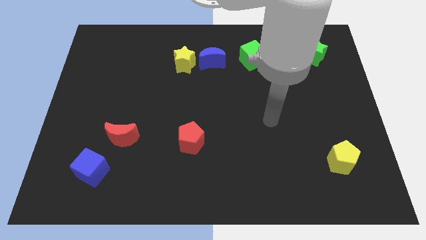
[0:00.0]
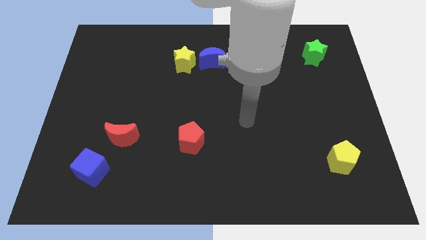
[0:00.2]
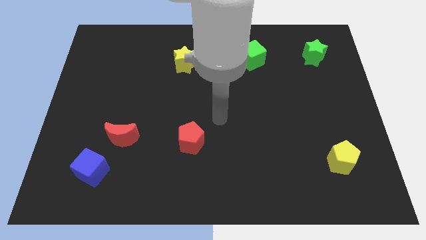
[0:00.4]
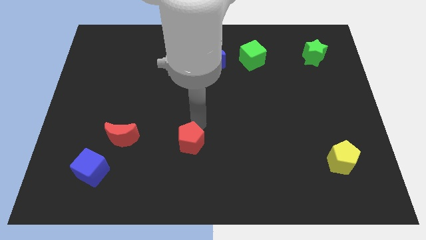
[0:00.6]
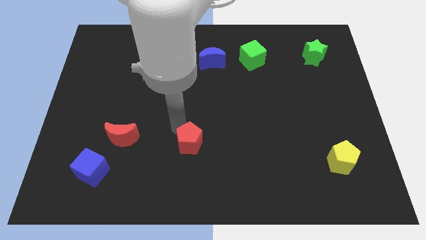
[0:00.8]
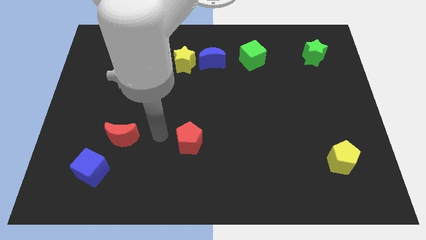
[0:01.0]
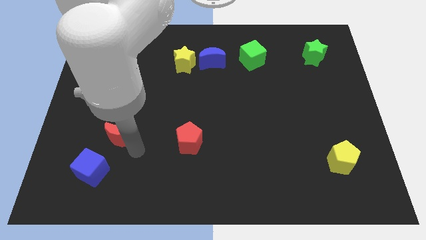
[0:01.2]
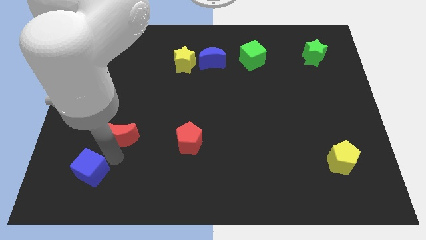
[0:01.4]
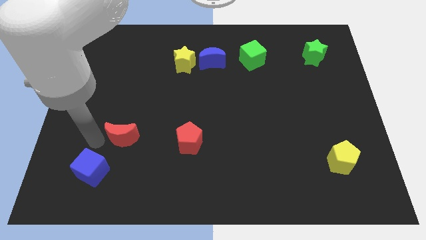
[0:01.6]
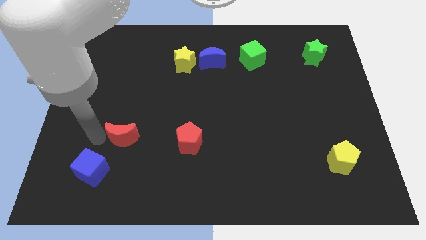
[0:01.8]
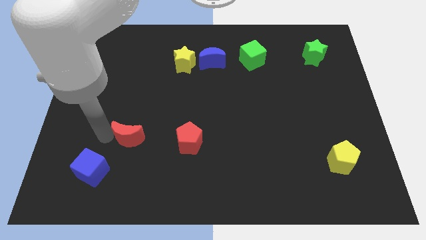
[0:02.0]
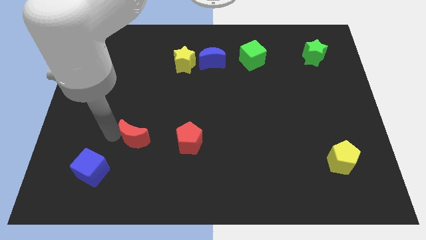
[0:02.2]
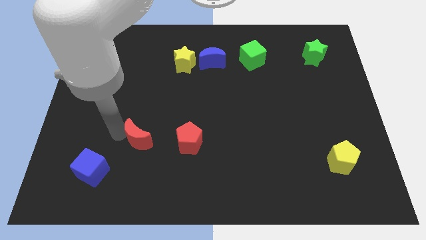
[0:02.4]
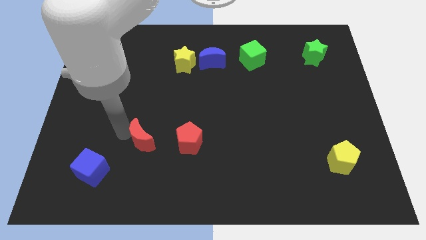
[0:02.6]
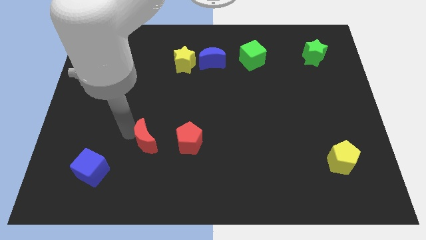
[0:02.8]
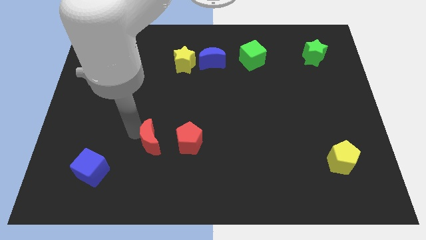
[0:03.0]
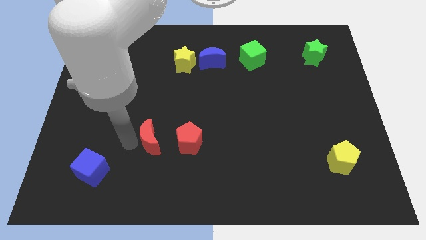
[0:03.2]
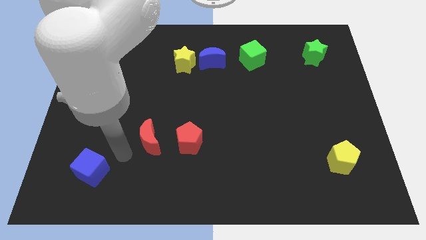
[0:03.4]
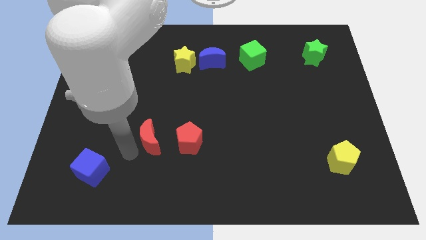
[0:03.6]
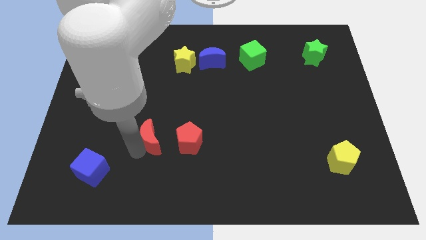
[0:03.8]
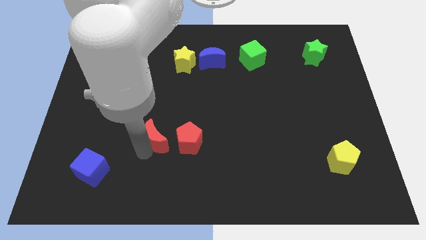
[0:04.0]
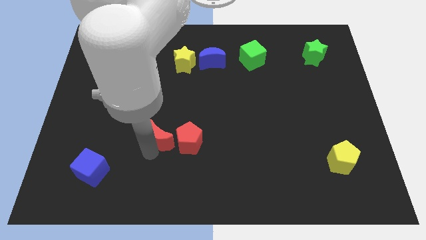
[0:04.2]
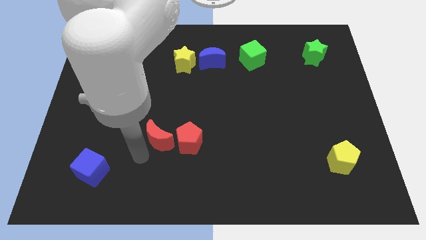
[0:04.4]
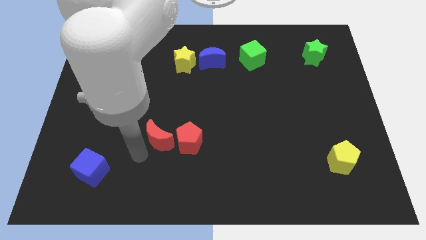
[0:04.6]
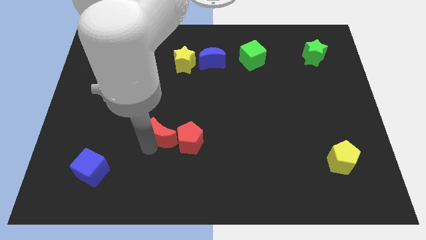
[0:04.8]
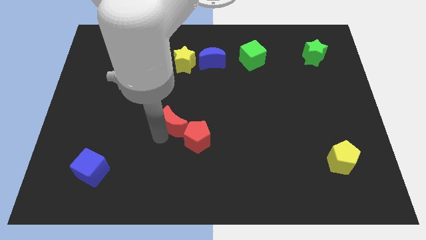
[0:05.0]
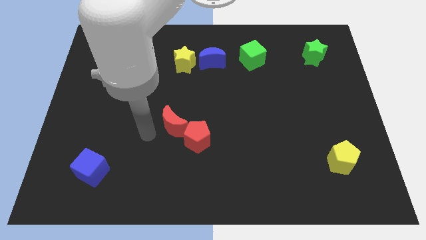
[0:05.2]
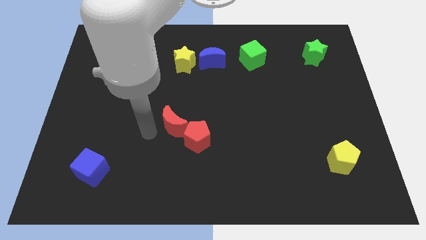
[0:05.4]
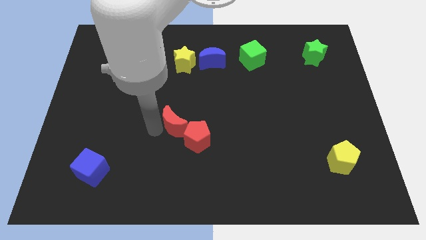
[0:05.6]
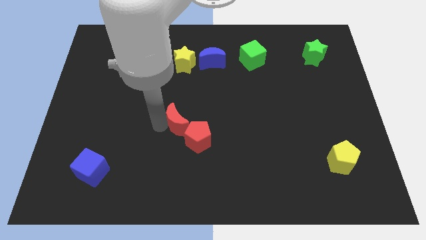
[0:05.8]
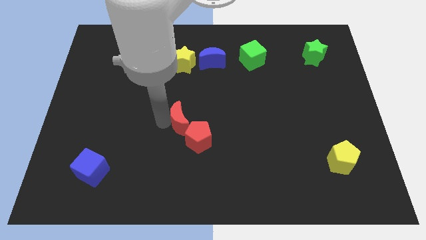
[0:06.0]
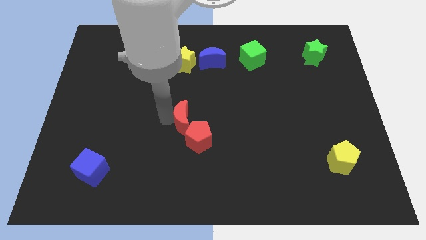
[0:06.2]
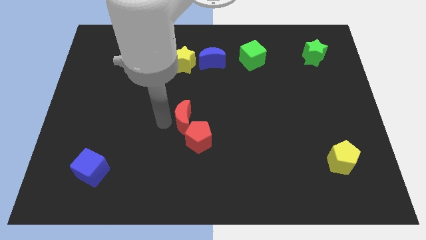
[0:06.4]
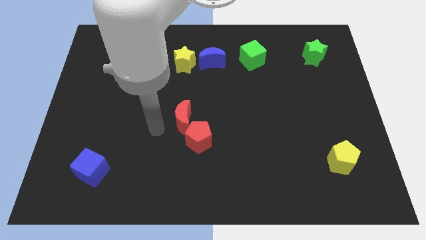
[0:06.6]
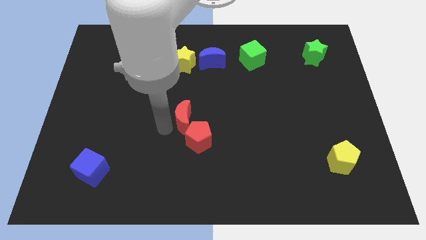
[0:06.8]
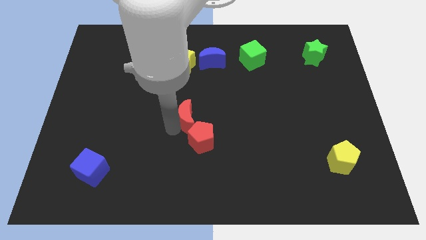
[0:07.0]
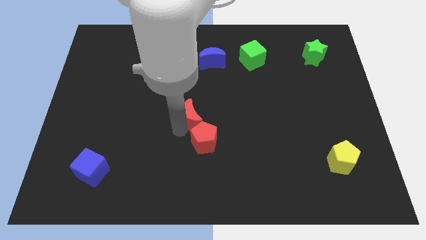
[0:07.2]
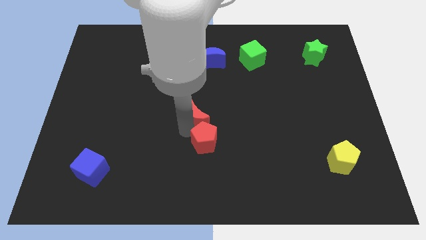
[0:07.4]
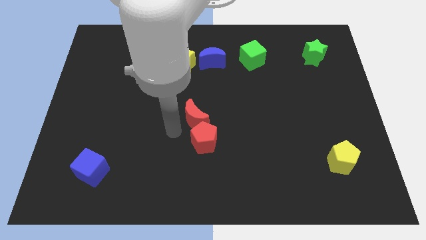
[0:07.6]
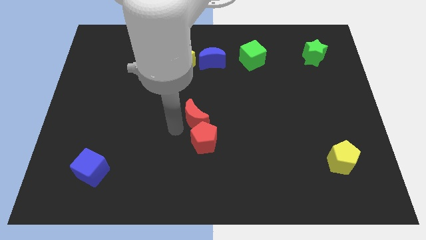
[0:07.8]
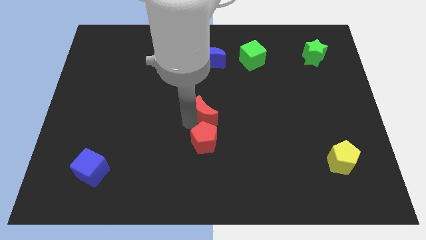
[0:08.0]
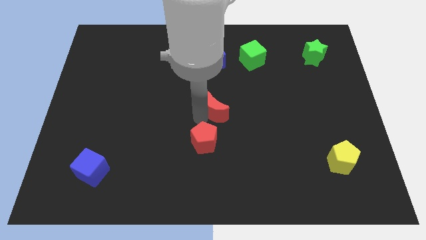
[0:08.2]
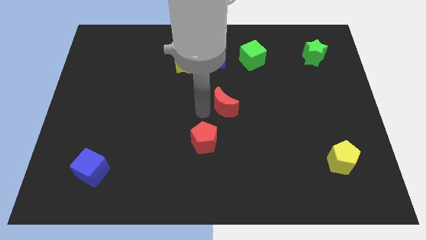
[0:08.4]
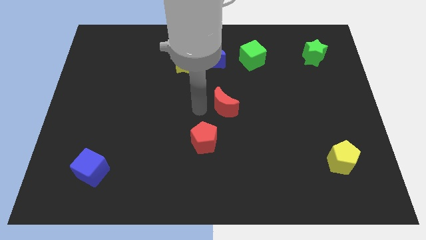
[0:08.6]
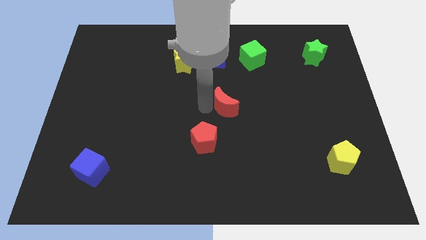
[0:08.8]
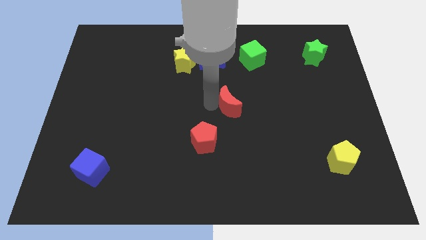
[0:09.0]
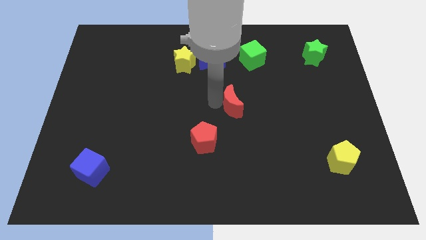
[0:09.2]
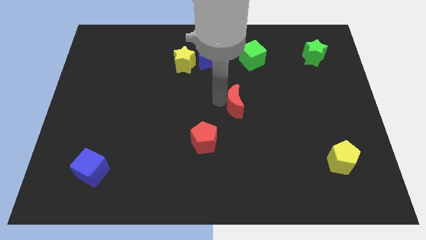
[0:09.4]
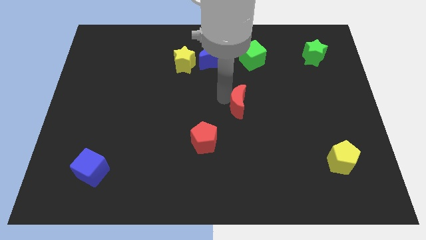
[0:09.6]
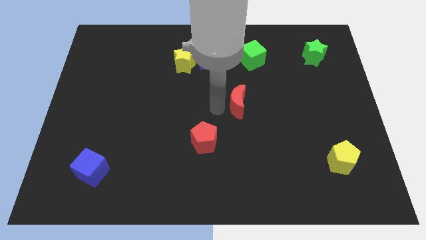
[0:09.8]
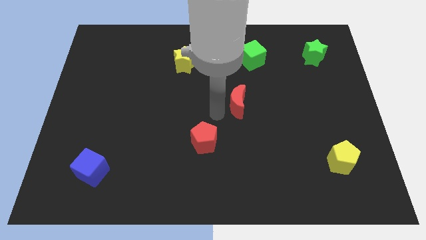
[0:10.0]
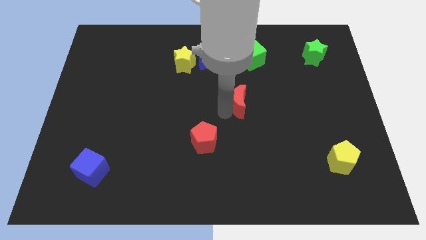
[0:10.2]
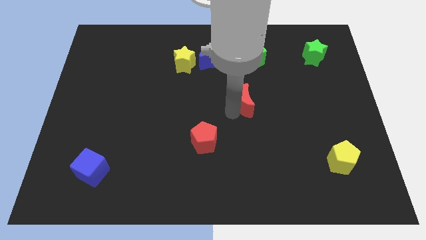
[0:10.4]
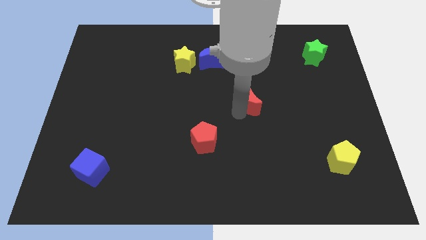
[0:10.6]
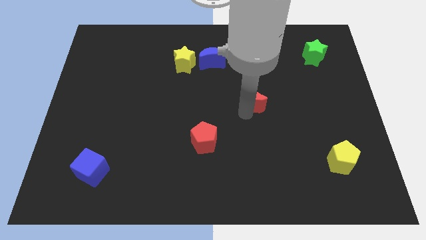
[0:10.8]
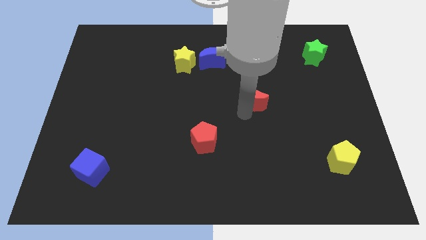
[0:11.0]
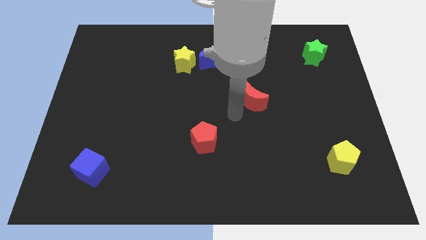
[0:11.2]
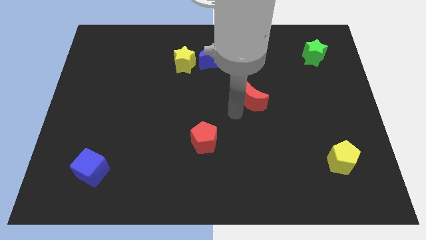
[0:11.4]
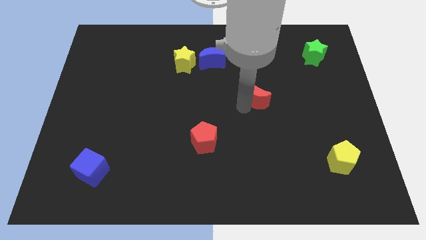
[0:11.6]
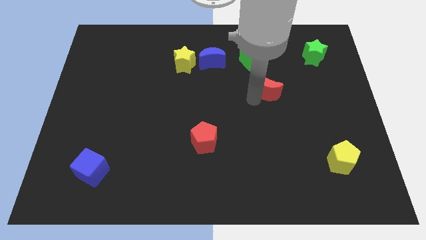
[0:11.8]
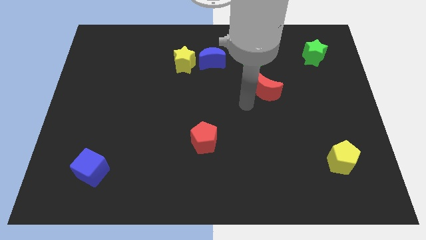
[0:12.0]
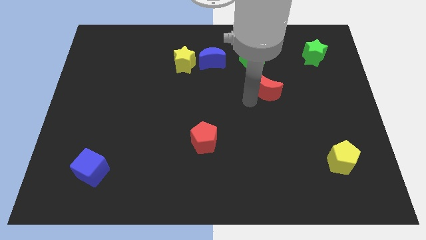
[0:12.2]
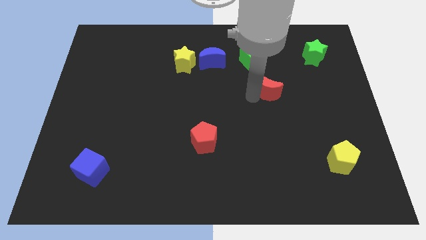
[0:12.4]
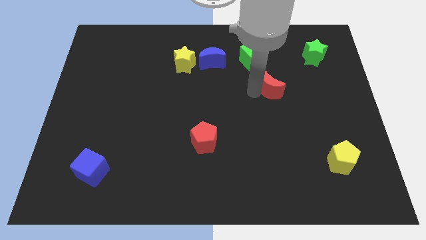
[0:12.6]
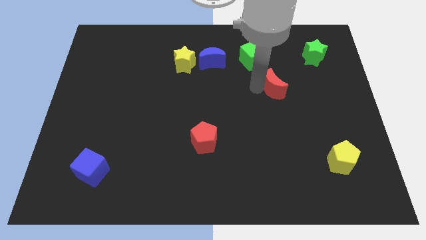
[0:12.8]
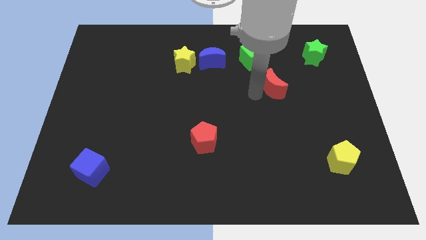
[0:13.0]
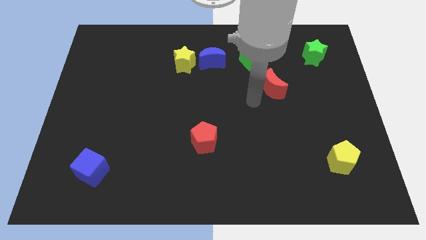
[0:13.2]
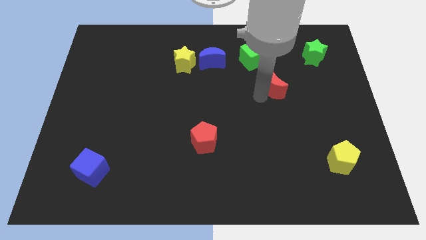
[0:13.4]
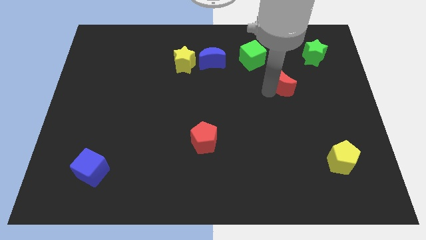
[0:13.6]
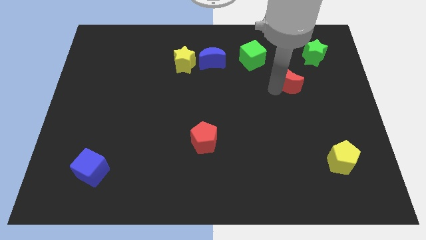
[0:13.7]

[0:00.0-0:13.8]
slide the red moon to the bottom left of the green star

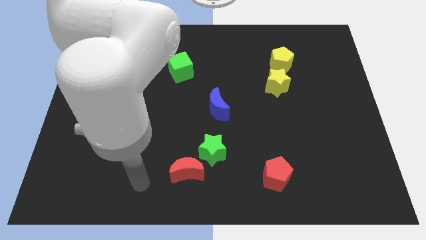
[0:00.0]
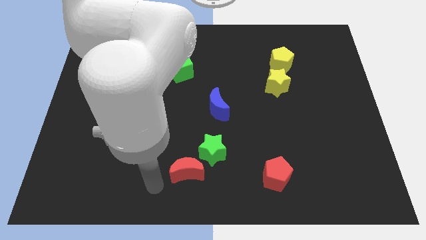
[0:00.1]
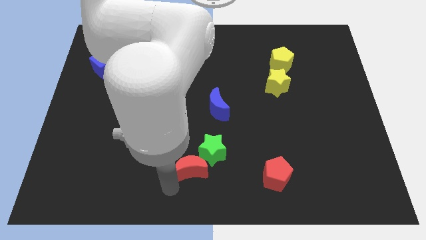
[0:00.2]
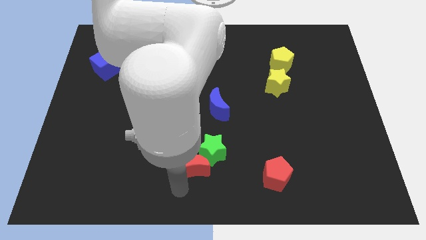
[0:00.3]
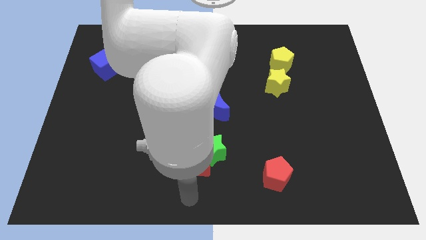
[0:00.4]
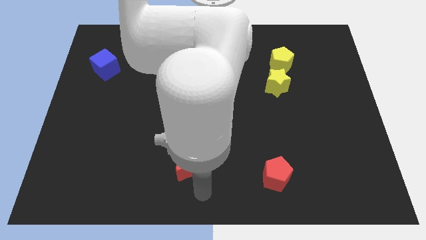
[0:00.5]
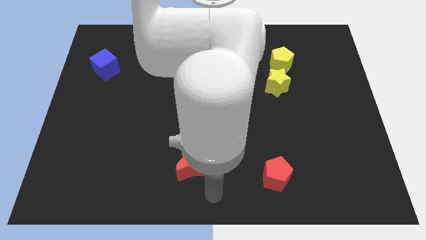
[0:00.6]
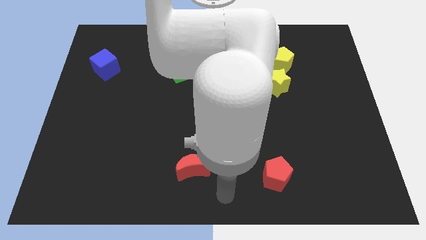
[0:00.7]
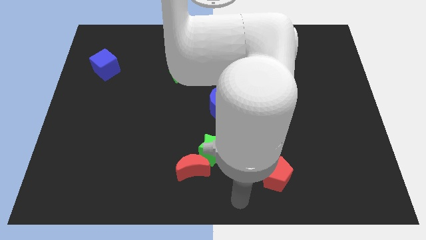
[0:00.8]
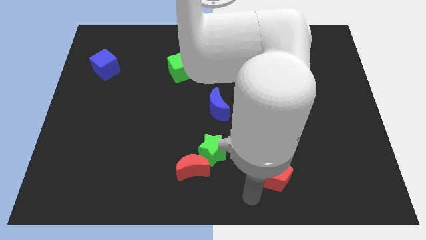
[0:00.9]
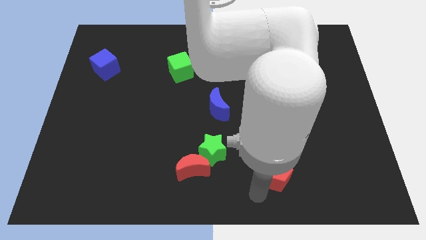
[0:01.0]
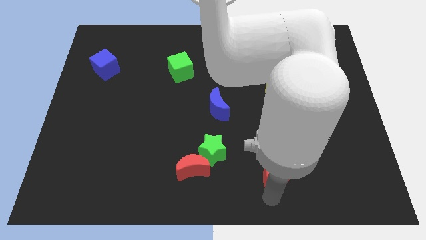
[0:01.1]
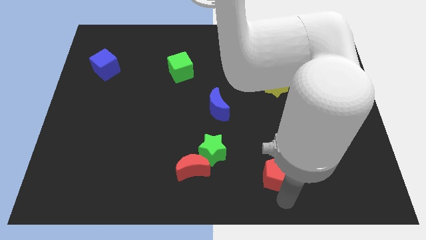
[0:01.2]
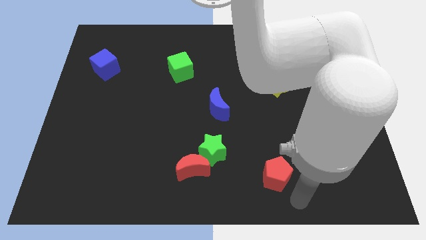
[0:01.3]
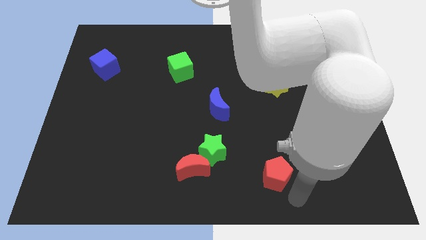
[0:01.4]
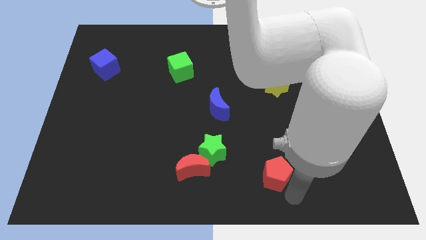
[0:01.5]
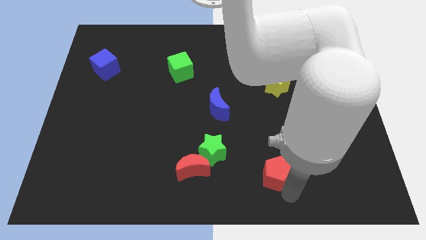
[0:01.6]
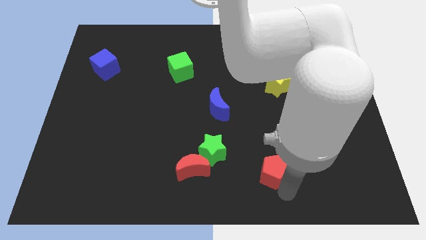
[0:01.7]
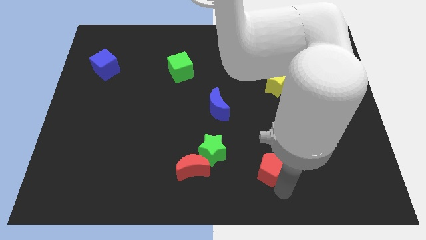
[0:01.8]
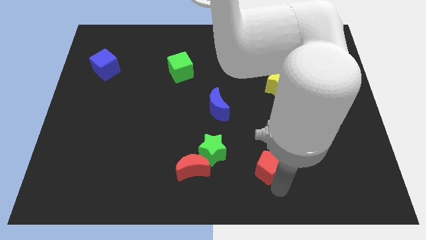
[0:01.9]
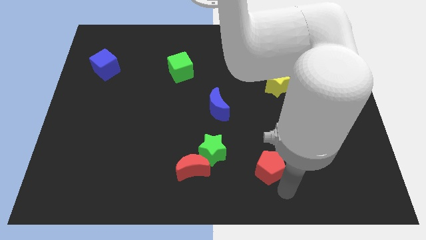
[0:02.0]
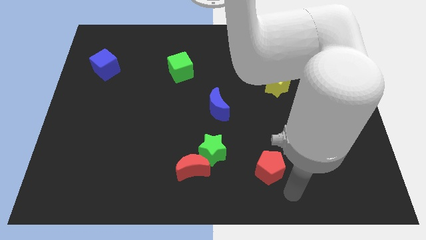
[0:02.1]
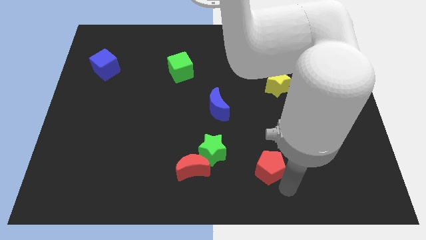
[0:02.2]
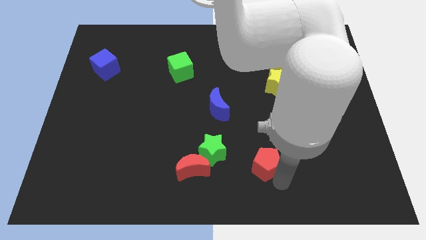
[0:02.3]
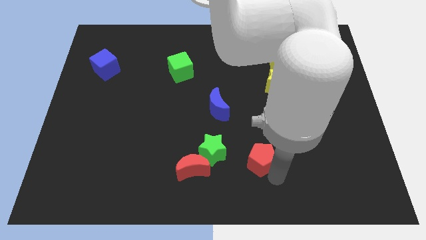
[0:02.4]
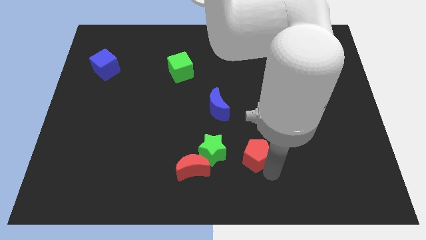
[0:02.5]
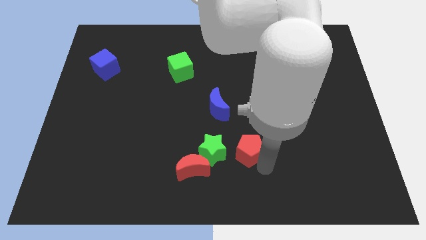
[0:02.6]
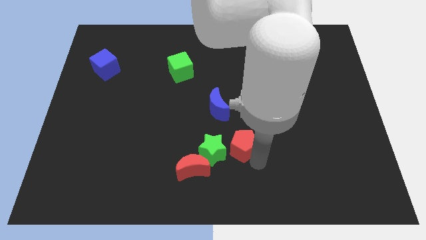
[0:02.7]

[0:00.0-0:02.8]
slide the red pentagon to the top right of the green star
